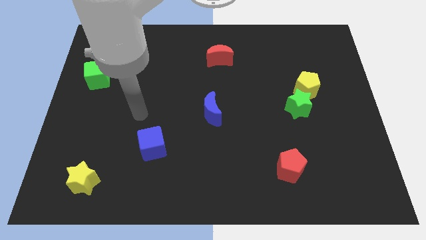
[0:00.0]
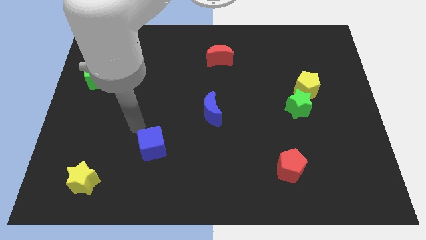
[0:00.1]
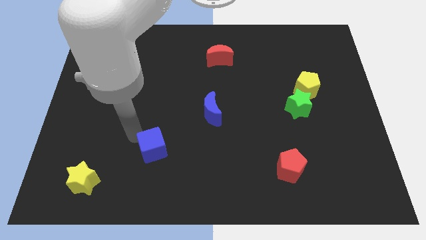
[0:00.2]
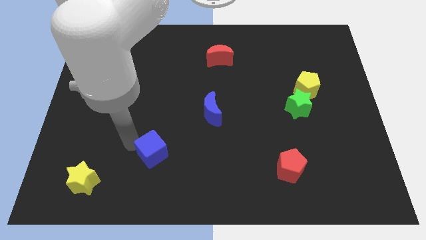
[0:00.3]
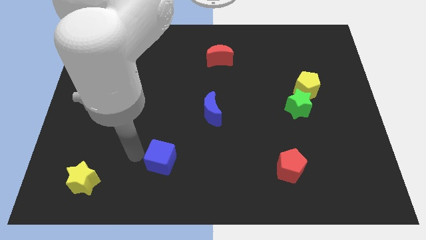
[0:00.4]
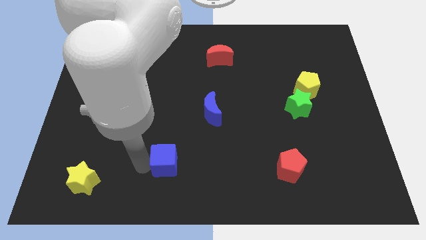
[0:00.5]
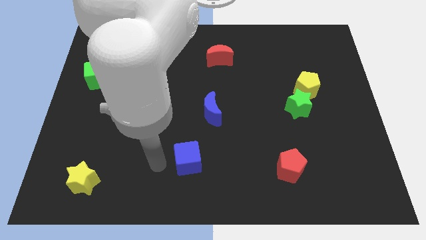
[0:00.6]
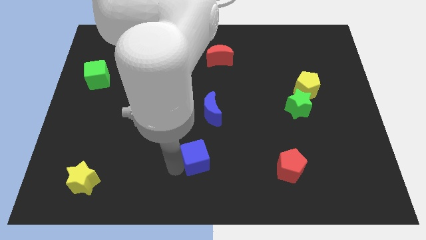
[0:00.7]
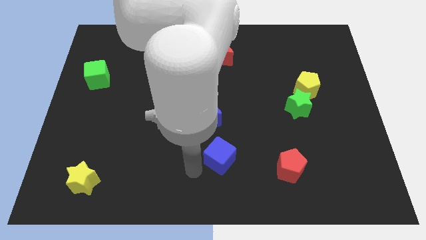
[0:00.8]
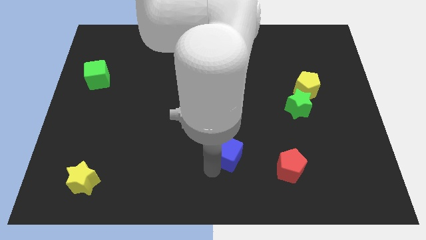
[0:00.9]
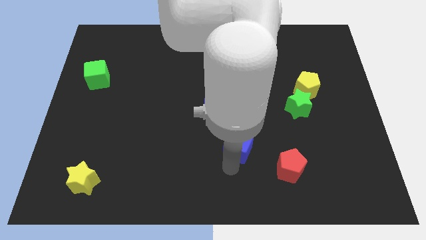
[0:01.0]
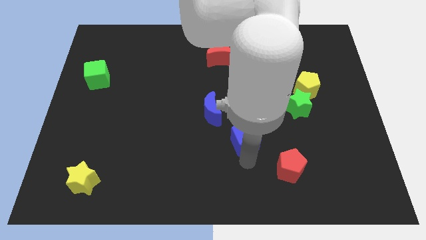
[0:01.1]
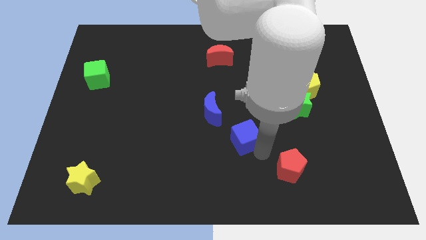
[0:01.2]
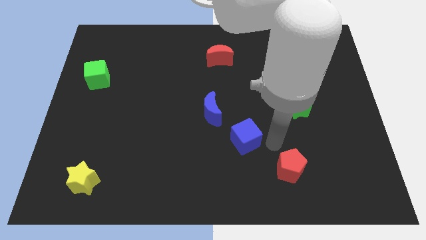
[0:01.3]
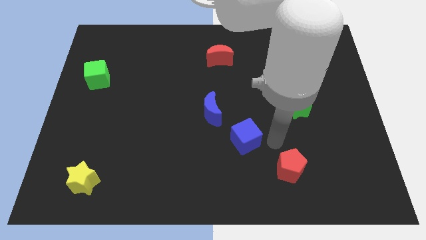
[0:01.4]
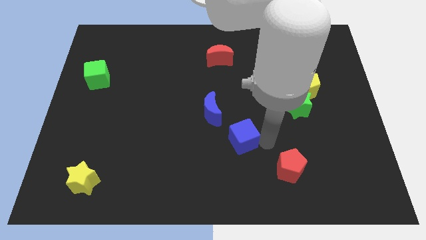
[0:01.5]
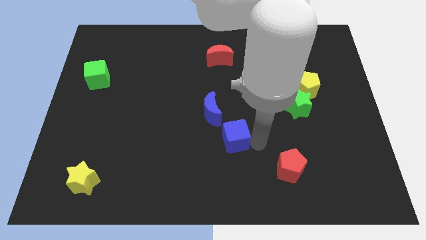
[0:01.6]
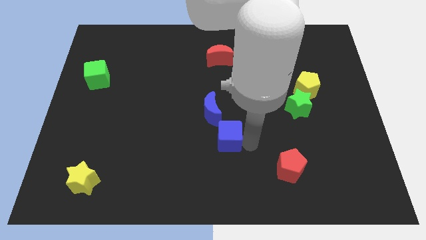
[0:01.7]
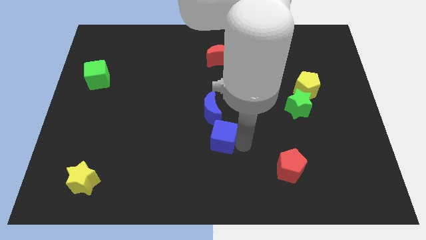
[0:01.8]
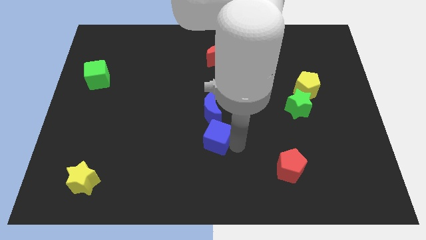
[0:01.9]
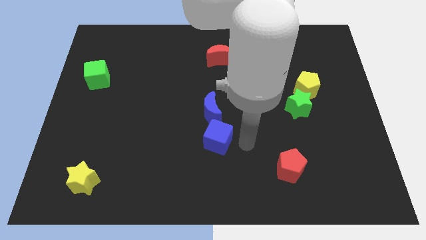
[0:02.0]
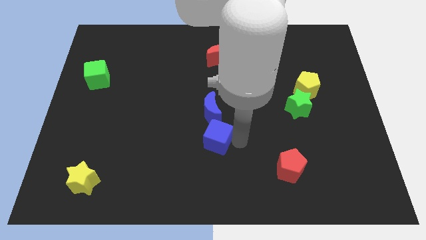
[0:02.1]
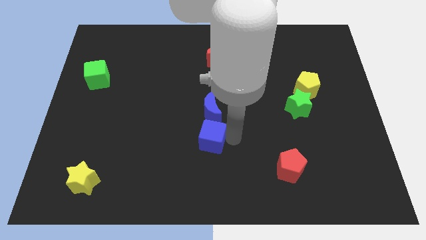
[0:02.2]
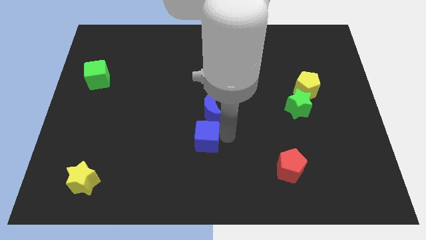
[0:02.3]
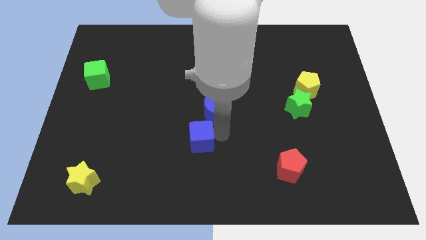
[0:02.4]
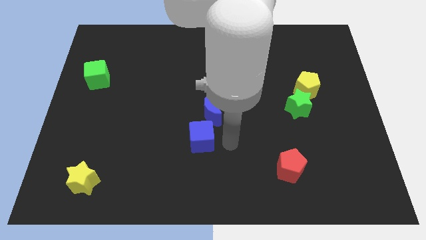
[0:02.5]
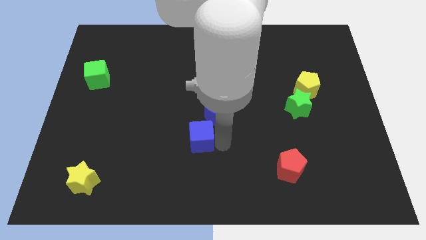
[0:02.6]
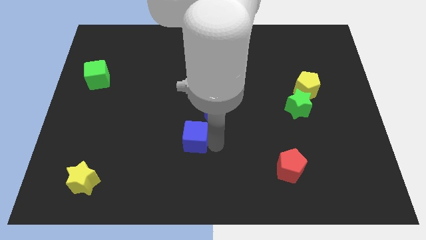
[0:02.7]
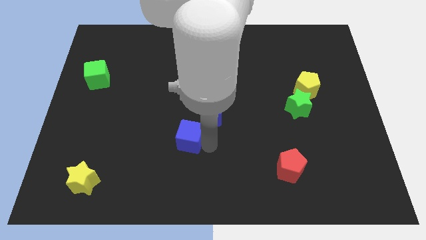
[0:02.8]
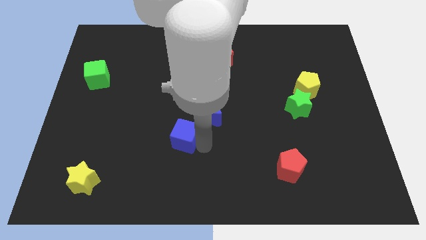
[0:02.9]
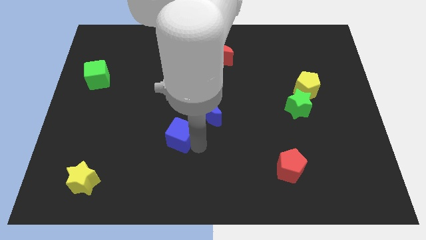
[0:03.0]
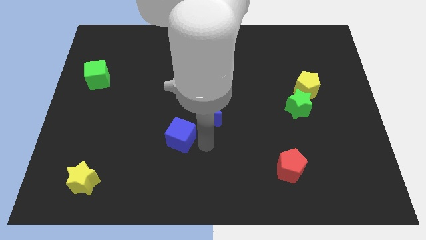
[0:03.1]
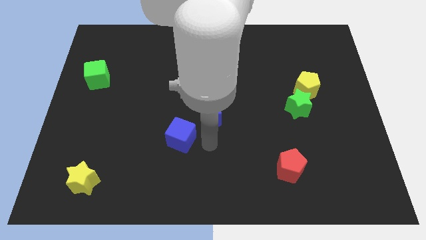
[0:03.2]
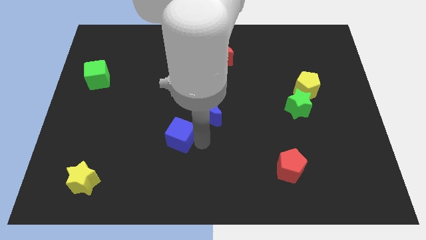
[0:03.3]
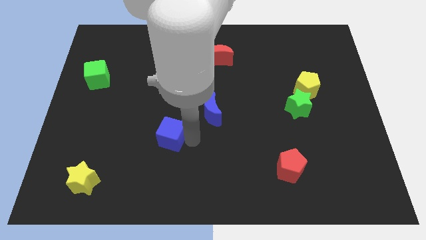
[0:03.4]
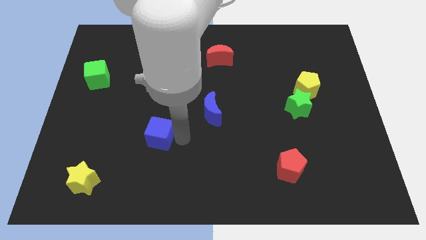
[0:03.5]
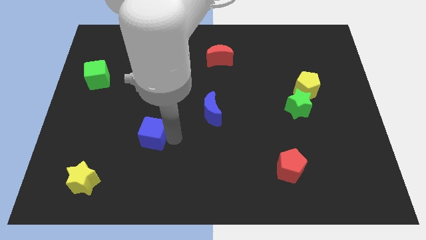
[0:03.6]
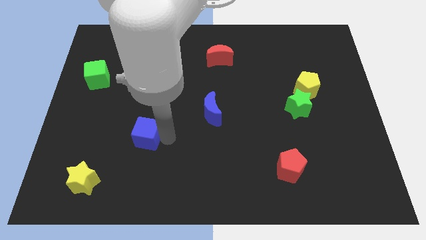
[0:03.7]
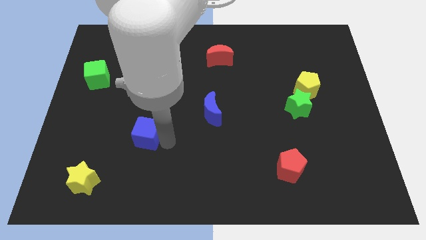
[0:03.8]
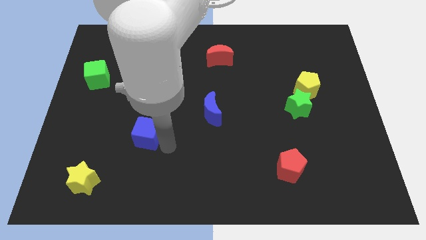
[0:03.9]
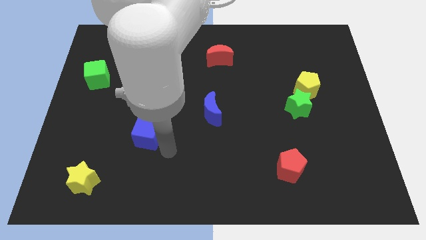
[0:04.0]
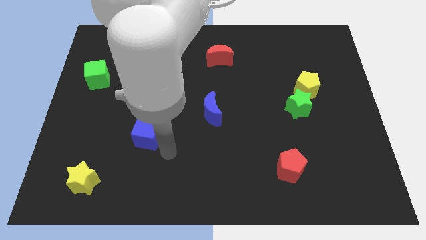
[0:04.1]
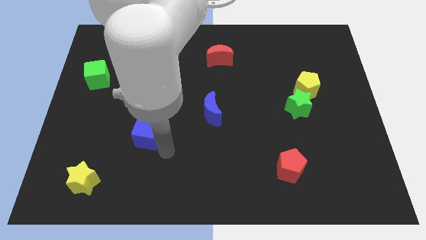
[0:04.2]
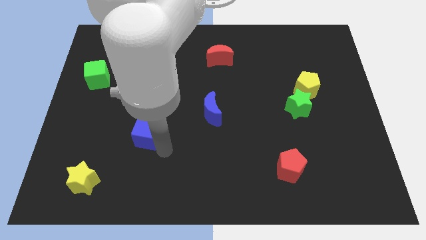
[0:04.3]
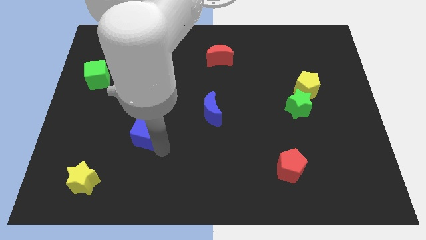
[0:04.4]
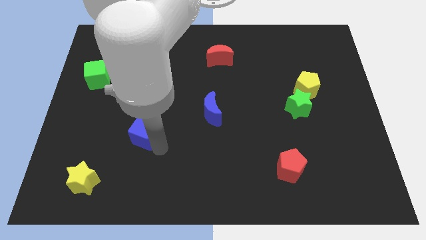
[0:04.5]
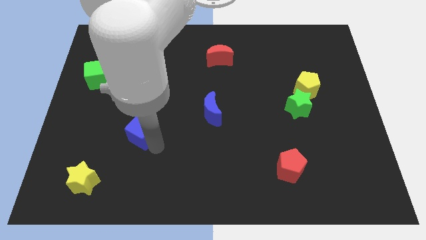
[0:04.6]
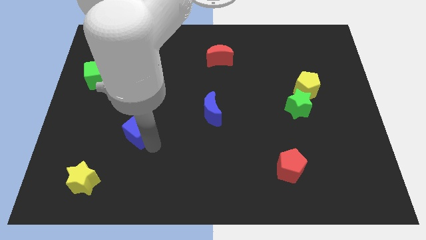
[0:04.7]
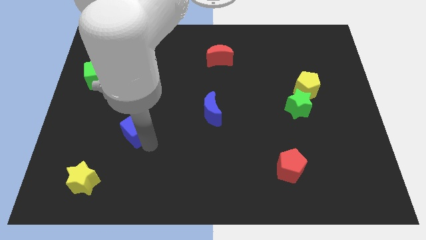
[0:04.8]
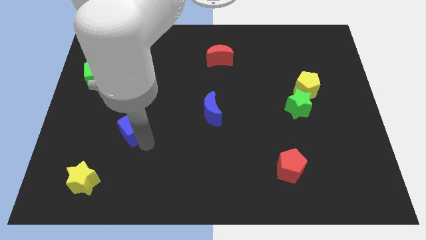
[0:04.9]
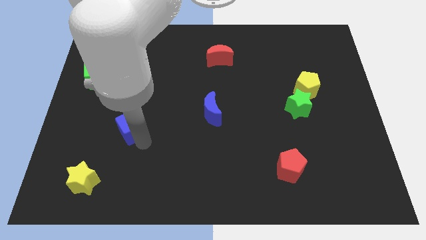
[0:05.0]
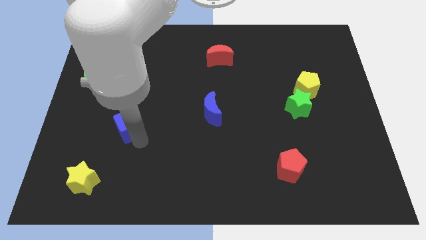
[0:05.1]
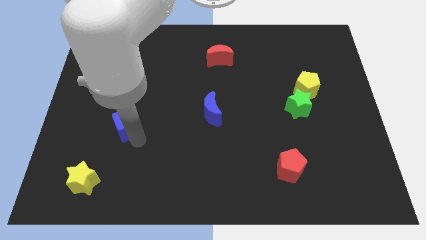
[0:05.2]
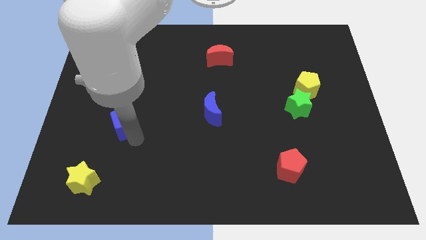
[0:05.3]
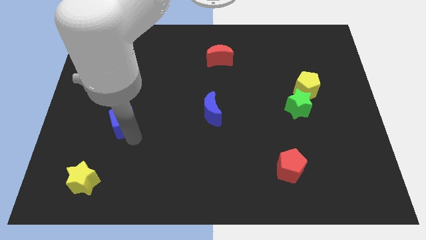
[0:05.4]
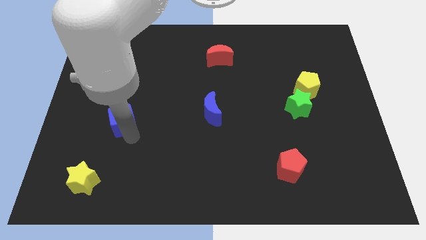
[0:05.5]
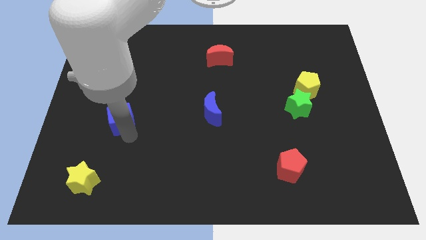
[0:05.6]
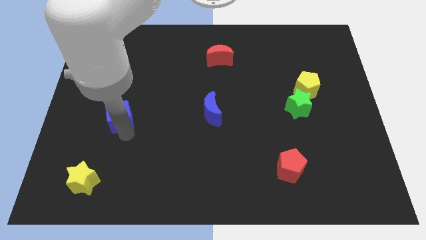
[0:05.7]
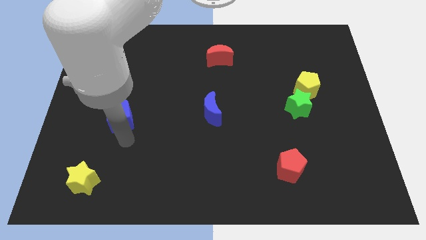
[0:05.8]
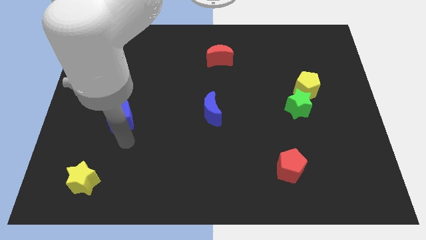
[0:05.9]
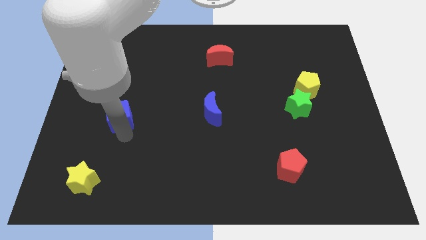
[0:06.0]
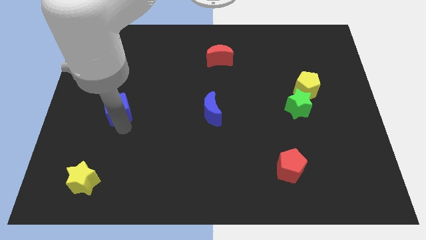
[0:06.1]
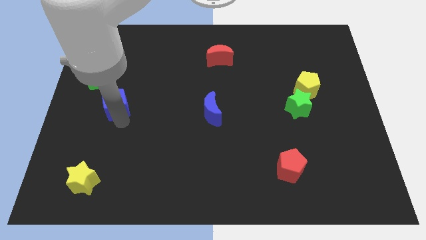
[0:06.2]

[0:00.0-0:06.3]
slide the blue cube to the bottom right of the green cube
